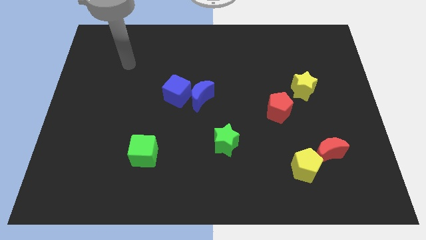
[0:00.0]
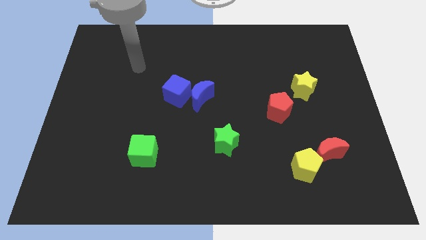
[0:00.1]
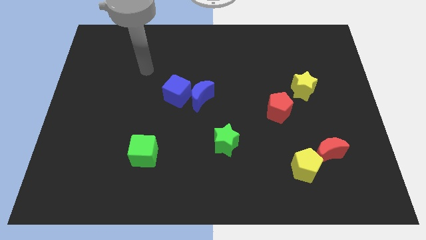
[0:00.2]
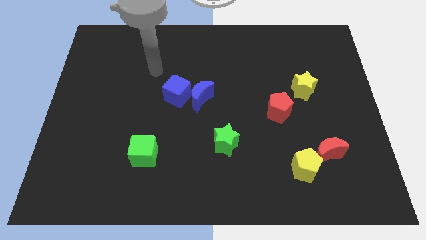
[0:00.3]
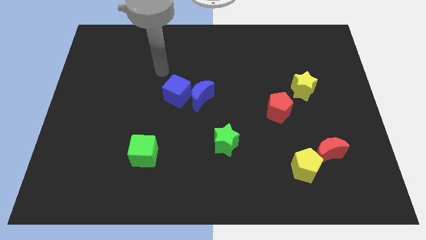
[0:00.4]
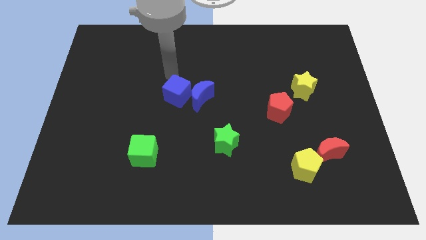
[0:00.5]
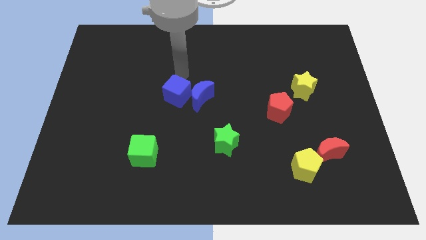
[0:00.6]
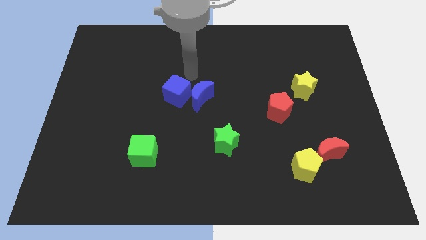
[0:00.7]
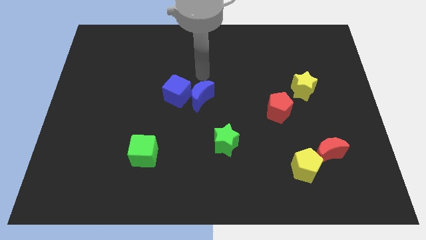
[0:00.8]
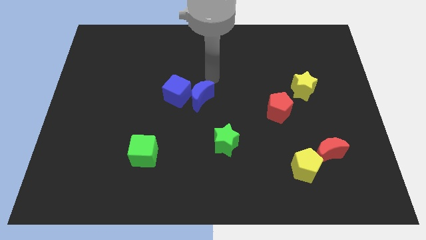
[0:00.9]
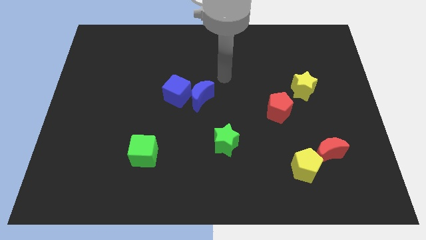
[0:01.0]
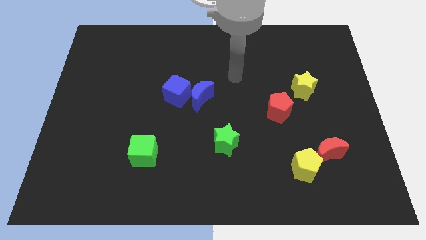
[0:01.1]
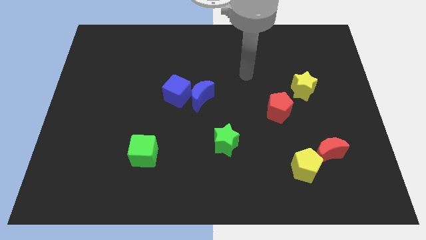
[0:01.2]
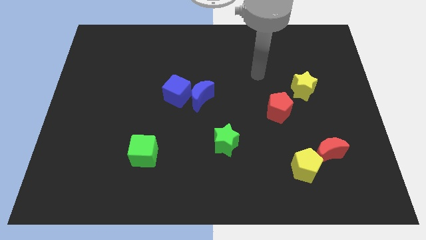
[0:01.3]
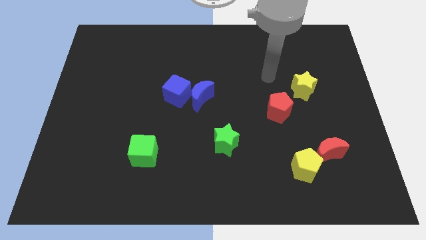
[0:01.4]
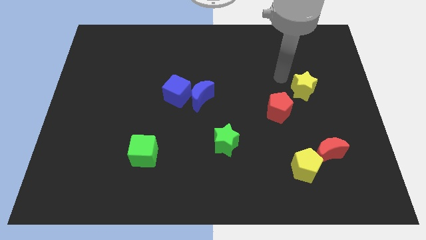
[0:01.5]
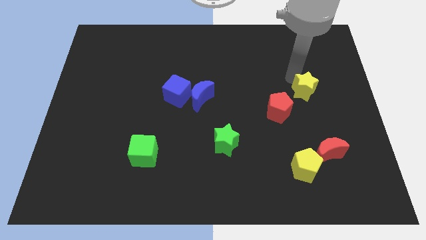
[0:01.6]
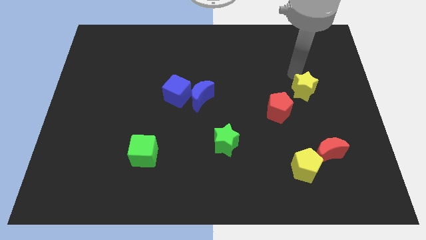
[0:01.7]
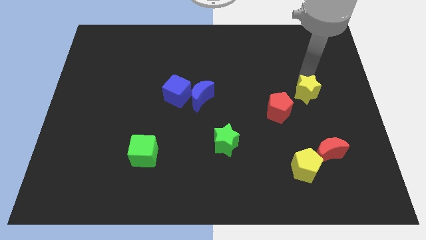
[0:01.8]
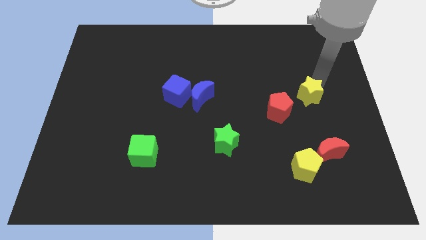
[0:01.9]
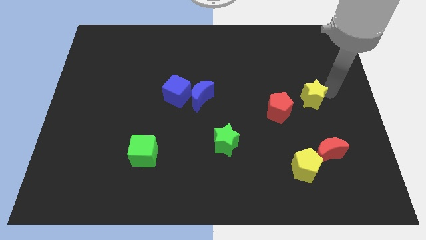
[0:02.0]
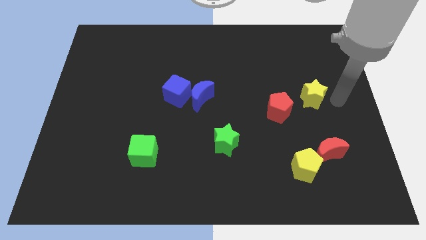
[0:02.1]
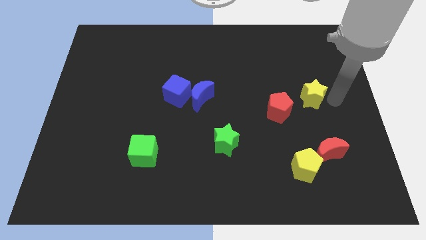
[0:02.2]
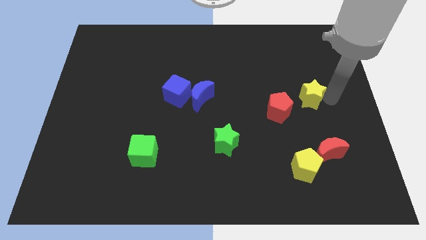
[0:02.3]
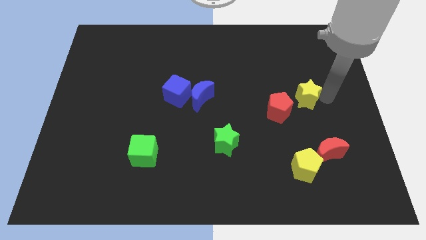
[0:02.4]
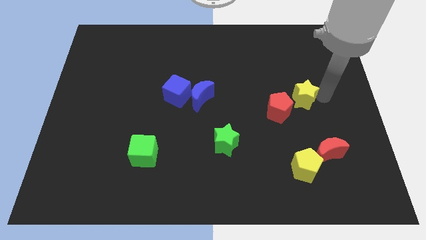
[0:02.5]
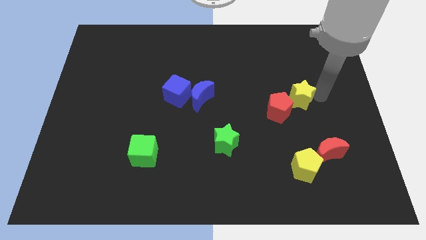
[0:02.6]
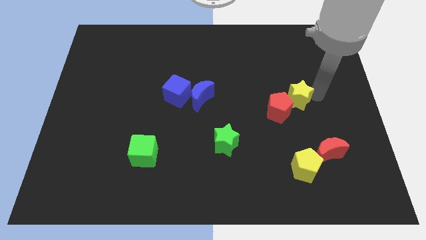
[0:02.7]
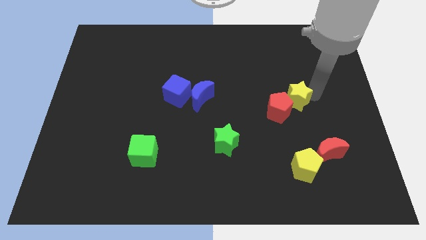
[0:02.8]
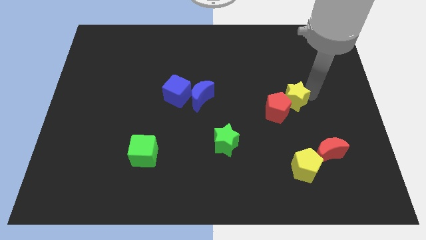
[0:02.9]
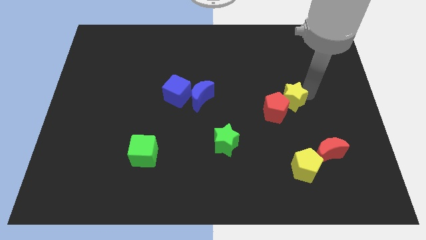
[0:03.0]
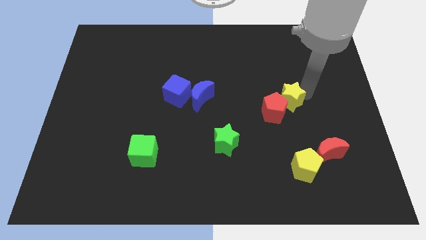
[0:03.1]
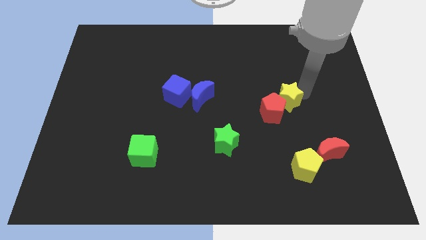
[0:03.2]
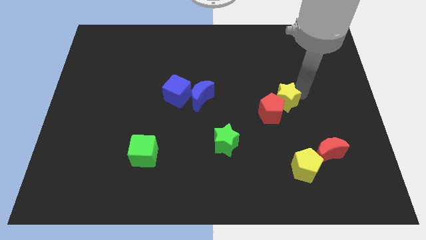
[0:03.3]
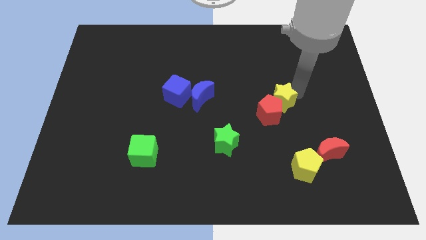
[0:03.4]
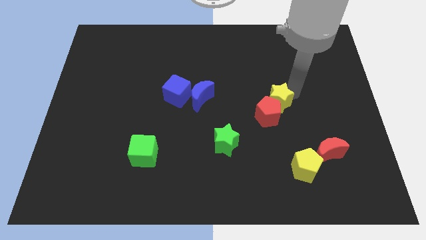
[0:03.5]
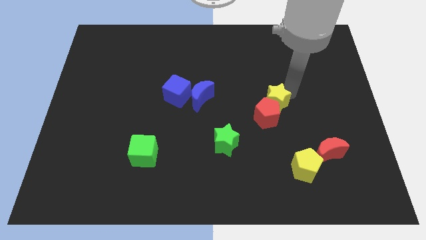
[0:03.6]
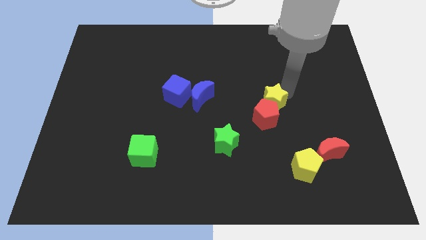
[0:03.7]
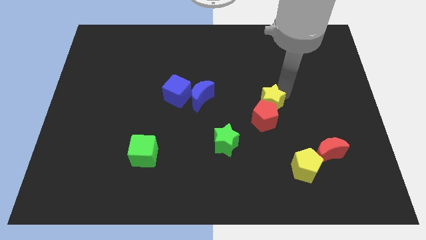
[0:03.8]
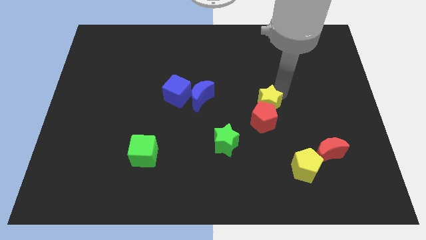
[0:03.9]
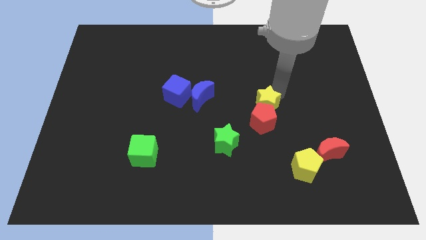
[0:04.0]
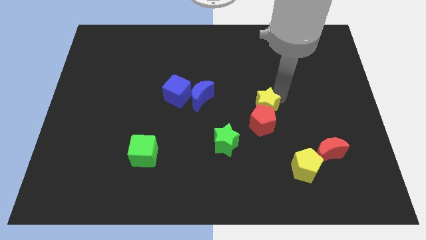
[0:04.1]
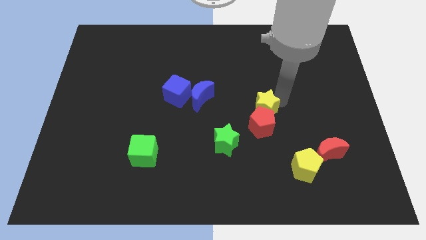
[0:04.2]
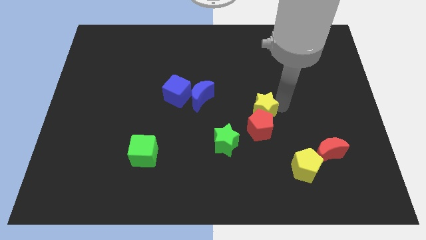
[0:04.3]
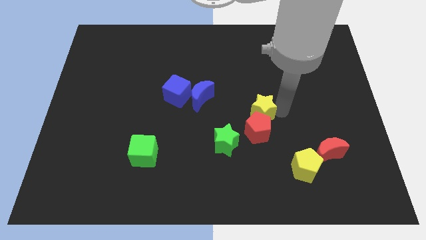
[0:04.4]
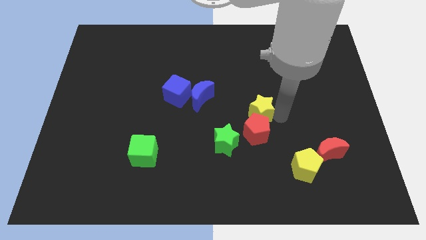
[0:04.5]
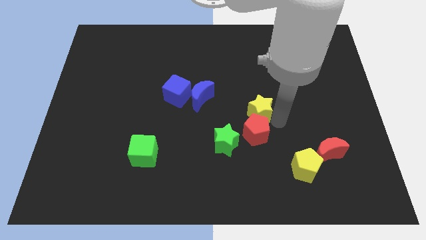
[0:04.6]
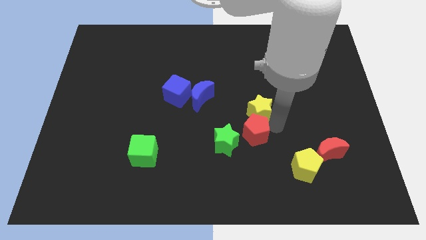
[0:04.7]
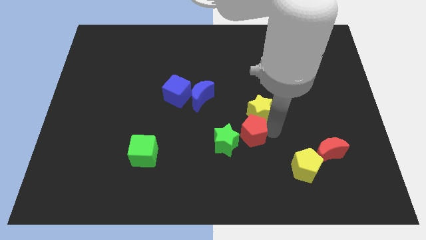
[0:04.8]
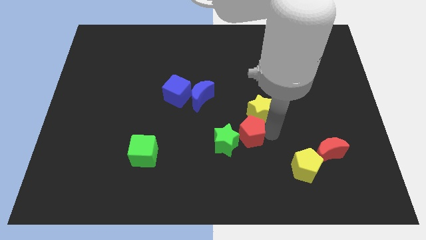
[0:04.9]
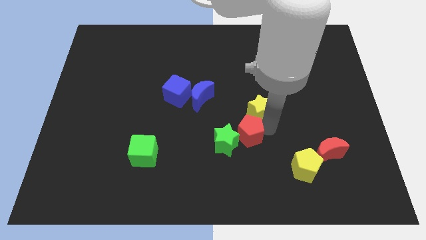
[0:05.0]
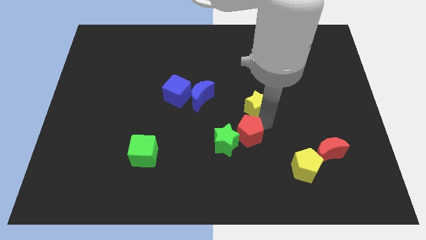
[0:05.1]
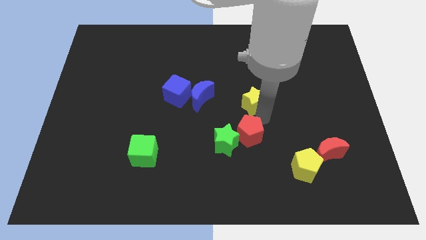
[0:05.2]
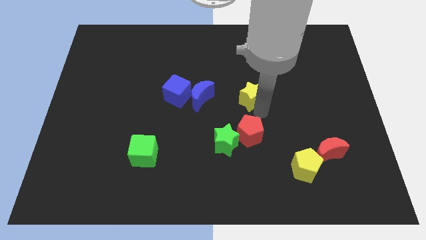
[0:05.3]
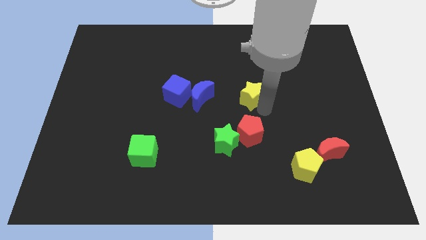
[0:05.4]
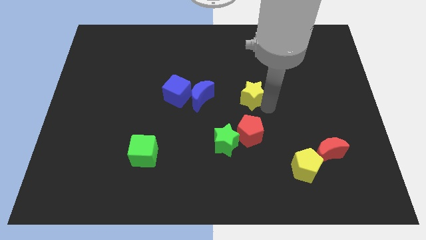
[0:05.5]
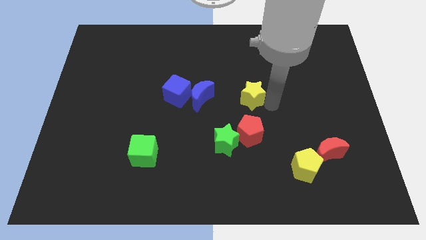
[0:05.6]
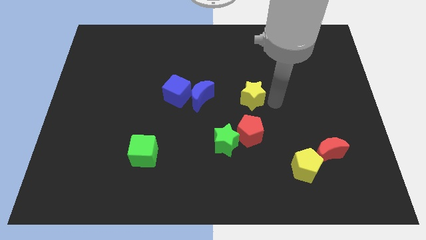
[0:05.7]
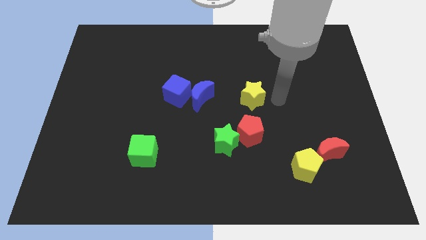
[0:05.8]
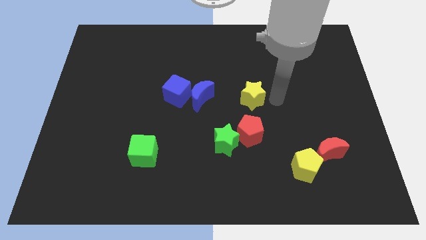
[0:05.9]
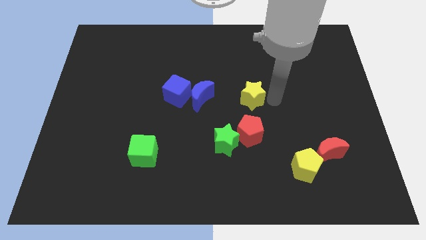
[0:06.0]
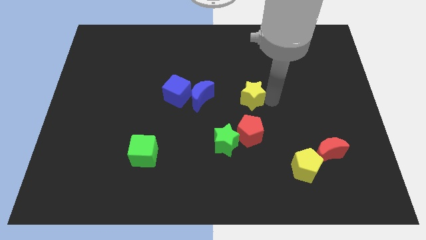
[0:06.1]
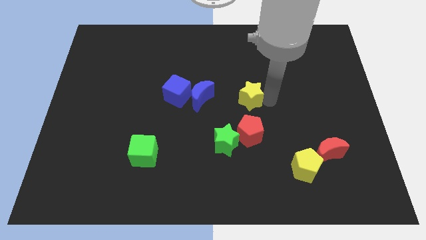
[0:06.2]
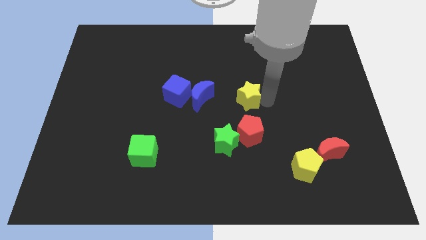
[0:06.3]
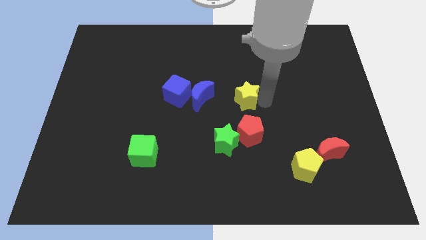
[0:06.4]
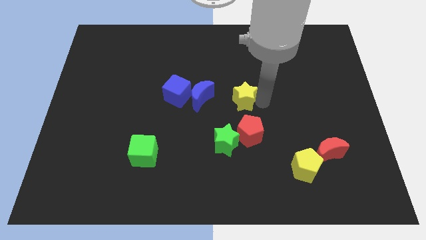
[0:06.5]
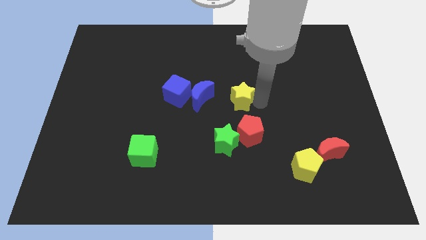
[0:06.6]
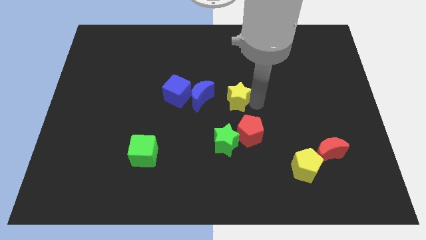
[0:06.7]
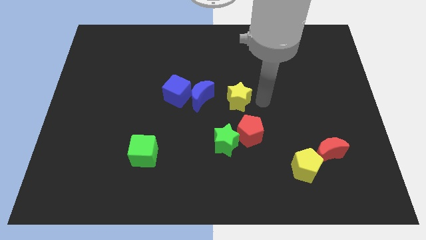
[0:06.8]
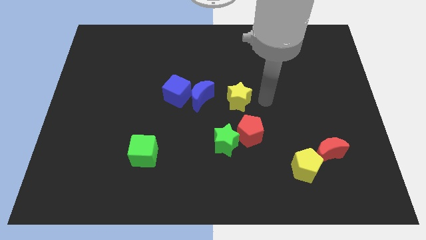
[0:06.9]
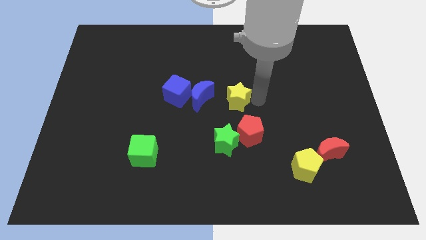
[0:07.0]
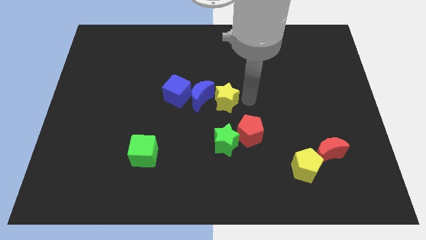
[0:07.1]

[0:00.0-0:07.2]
push the yellow star next to the blue moon
